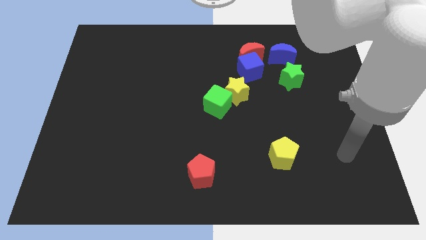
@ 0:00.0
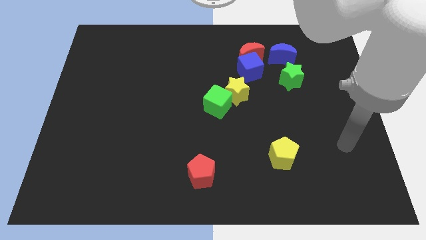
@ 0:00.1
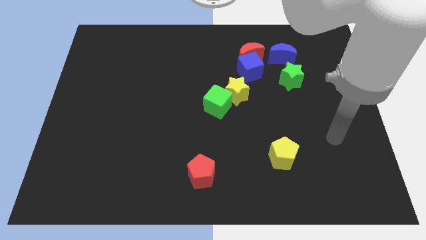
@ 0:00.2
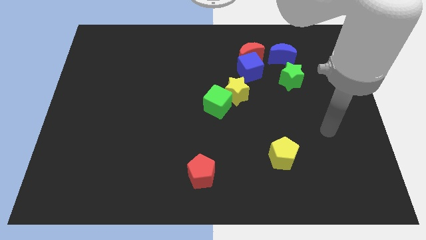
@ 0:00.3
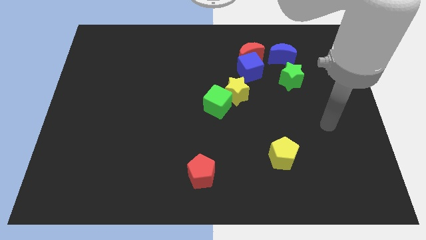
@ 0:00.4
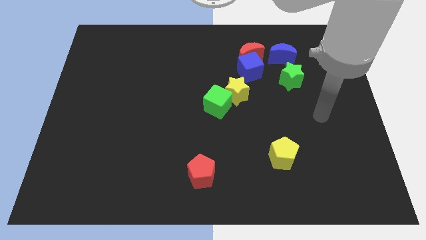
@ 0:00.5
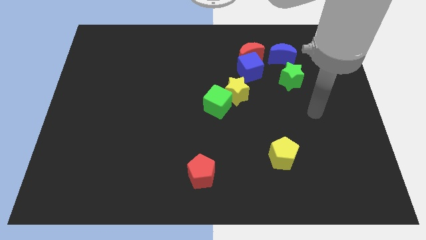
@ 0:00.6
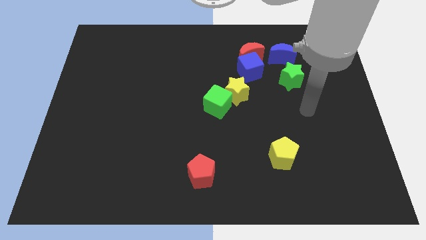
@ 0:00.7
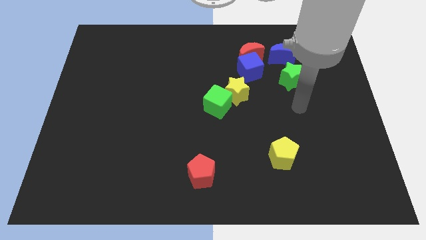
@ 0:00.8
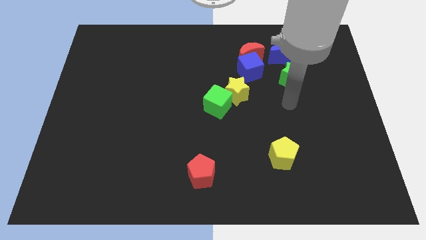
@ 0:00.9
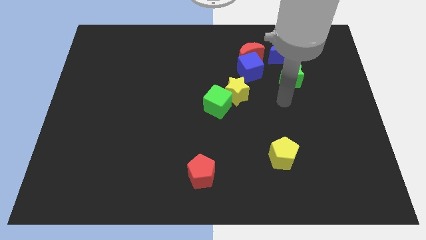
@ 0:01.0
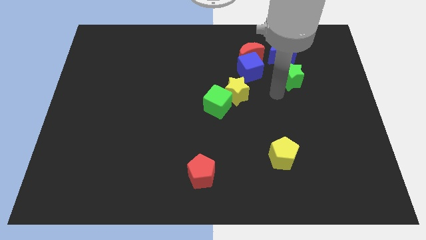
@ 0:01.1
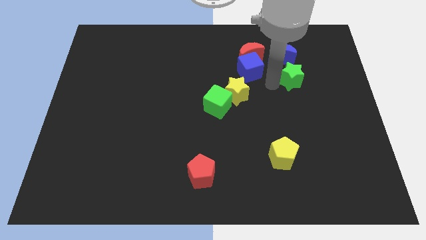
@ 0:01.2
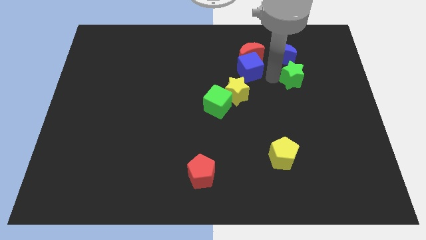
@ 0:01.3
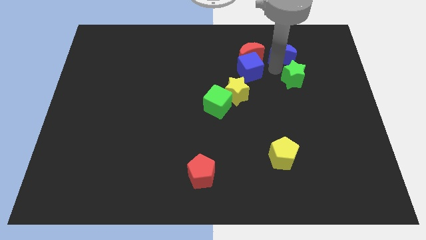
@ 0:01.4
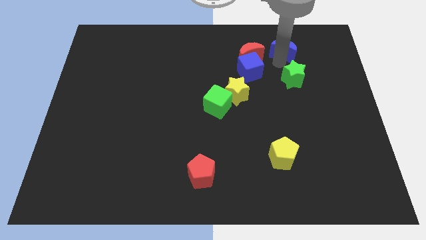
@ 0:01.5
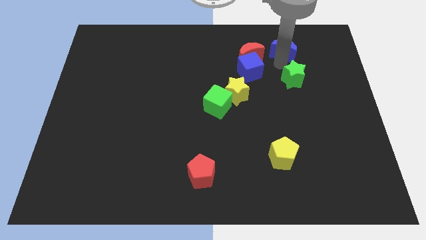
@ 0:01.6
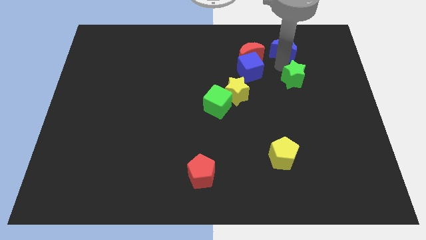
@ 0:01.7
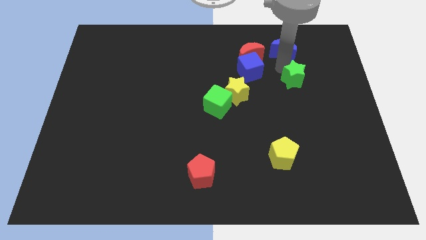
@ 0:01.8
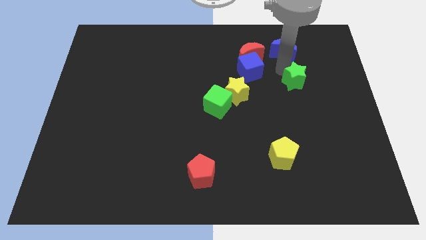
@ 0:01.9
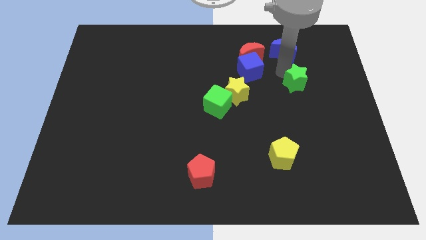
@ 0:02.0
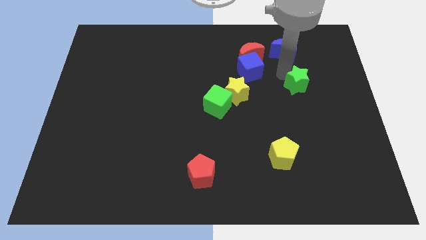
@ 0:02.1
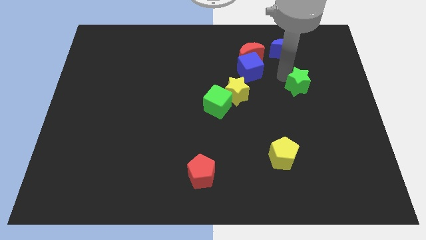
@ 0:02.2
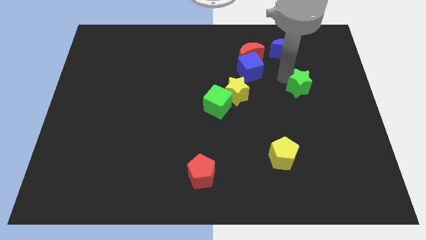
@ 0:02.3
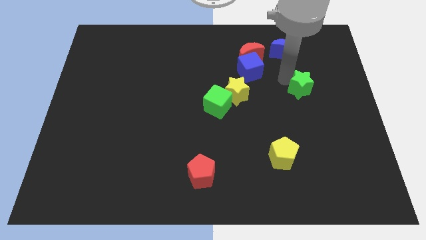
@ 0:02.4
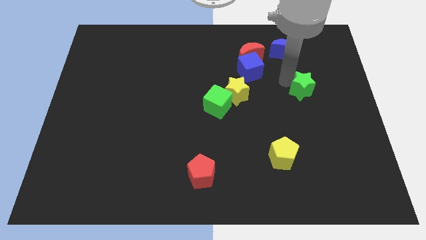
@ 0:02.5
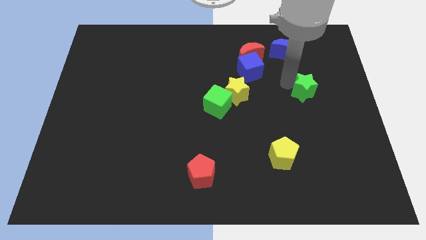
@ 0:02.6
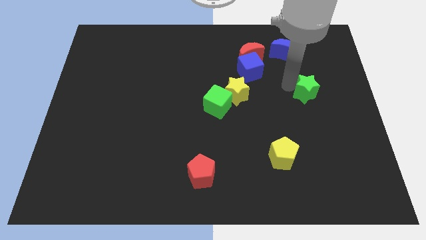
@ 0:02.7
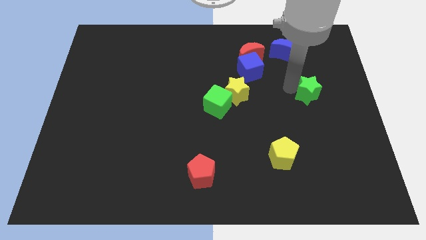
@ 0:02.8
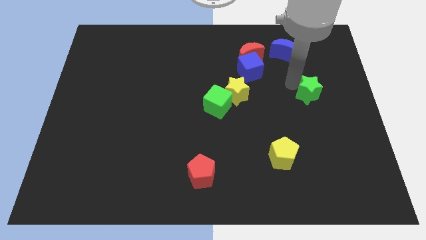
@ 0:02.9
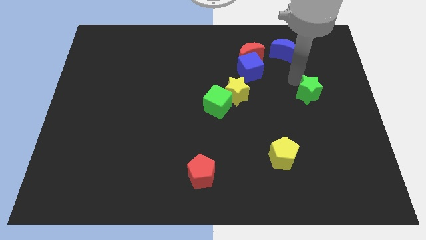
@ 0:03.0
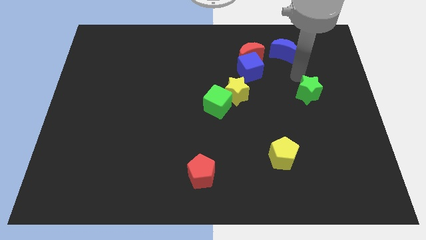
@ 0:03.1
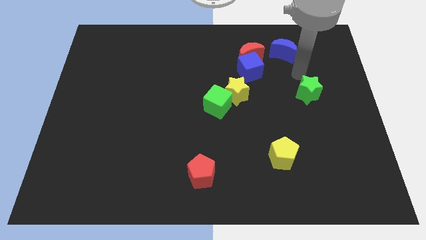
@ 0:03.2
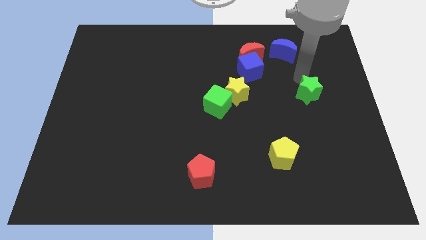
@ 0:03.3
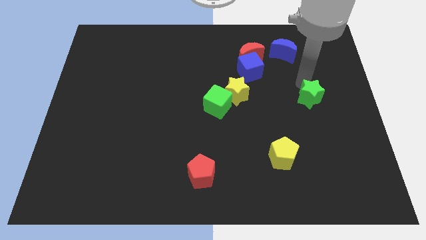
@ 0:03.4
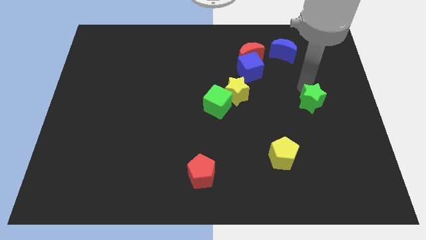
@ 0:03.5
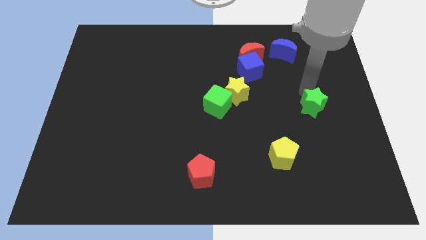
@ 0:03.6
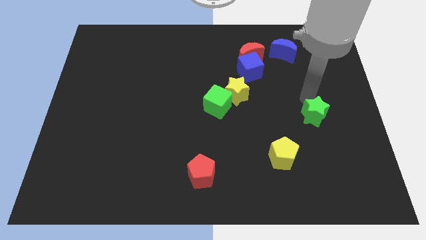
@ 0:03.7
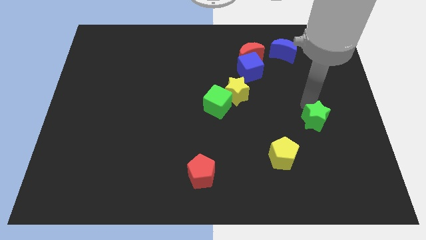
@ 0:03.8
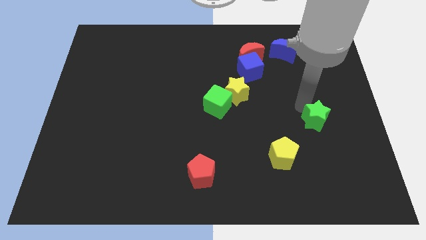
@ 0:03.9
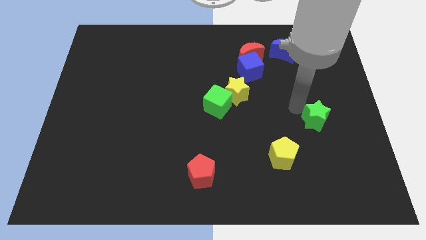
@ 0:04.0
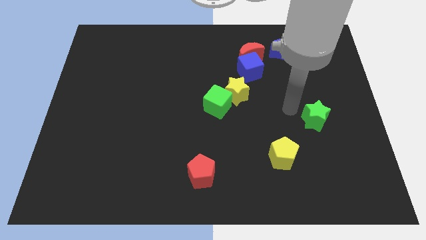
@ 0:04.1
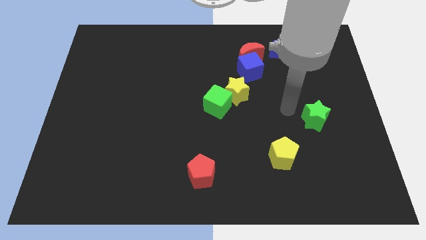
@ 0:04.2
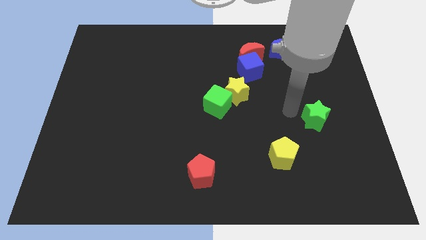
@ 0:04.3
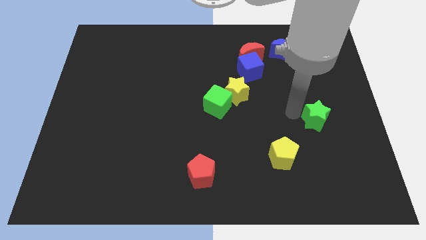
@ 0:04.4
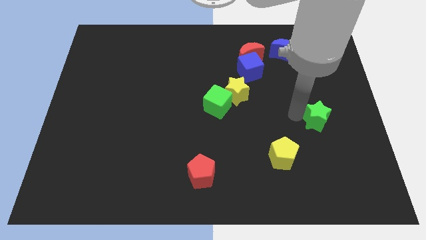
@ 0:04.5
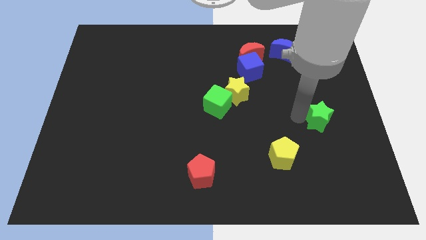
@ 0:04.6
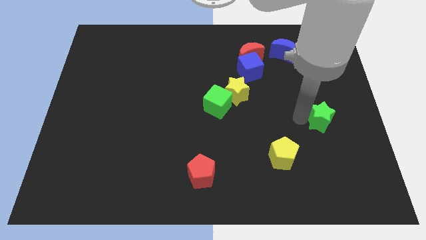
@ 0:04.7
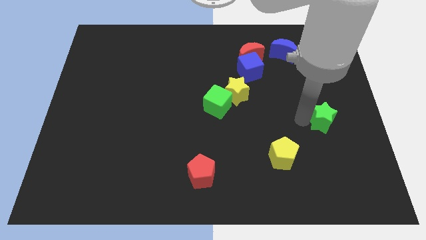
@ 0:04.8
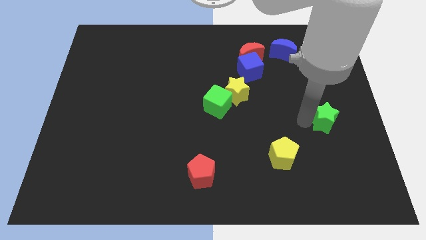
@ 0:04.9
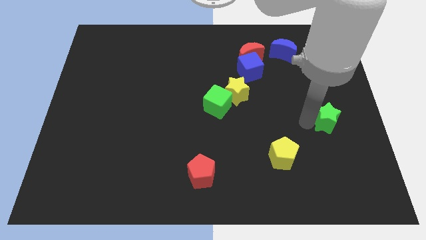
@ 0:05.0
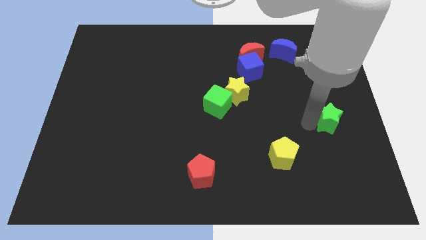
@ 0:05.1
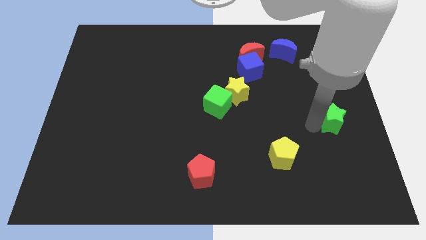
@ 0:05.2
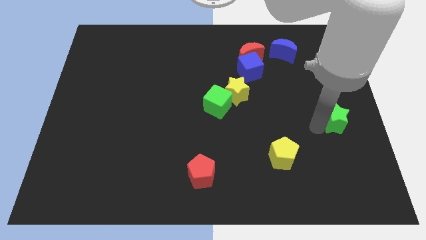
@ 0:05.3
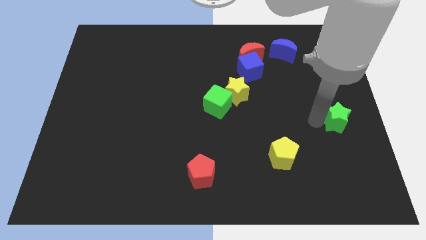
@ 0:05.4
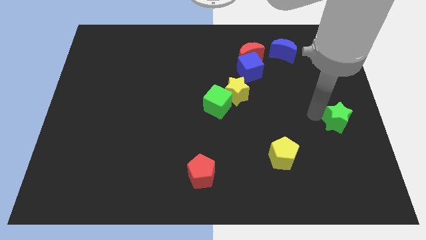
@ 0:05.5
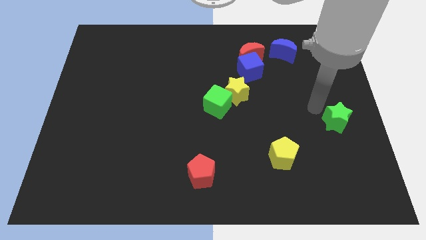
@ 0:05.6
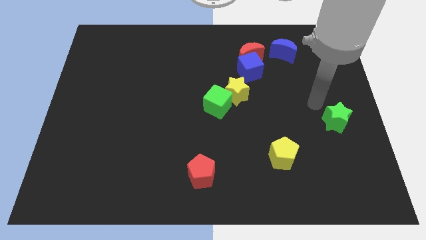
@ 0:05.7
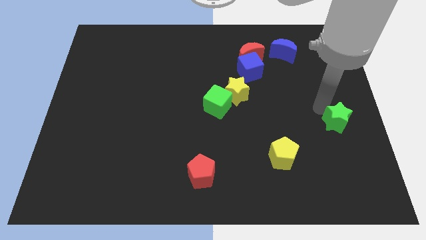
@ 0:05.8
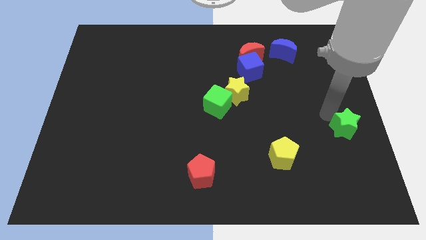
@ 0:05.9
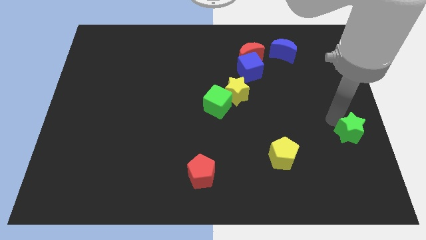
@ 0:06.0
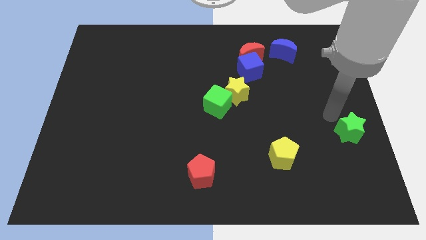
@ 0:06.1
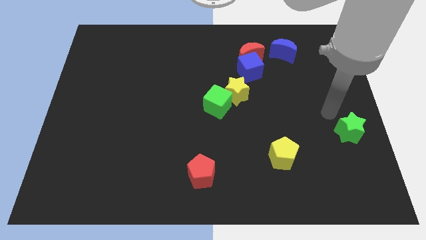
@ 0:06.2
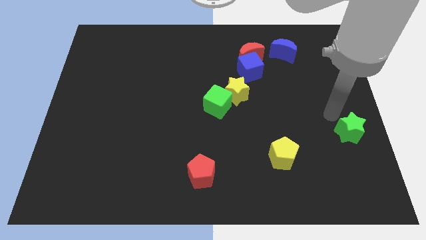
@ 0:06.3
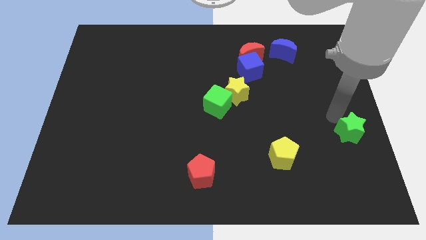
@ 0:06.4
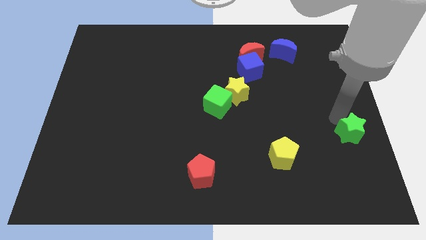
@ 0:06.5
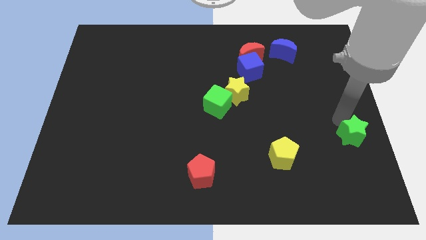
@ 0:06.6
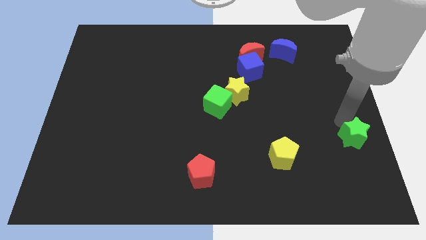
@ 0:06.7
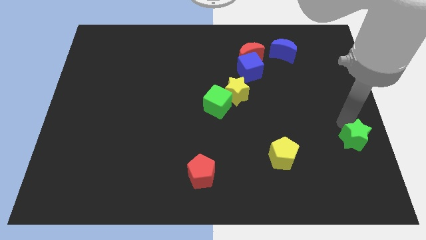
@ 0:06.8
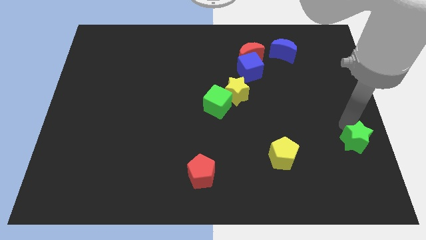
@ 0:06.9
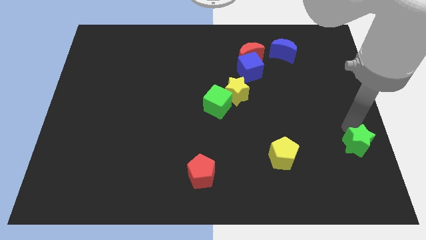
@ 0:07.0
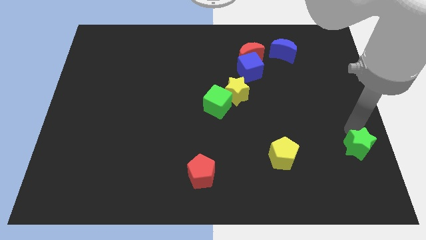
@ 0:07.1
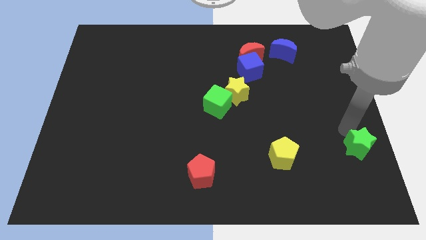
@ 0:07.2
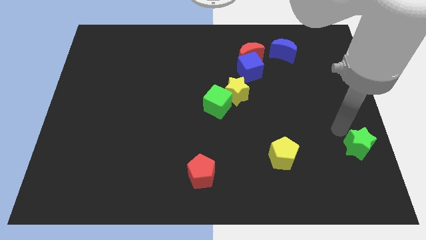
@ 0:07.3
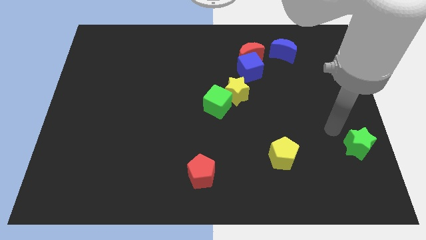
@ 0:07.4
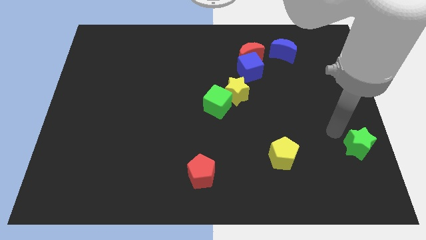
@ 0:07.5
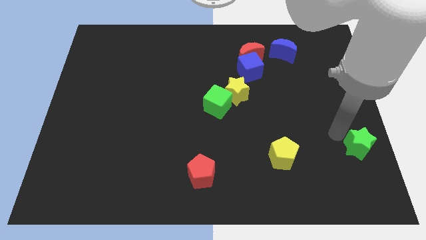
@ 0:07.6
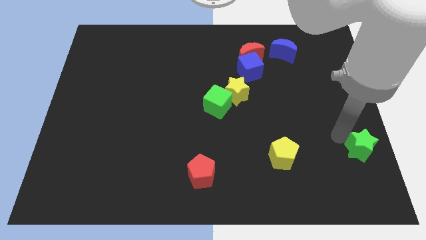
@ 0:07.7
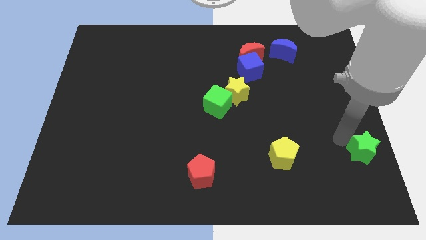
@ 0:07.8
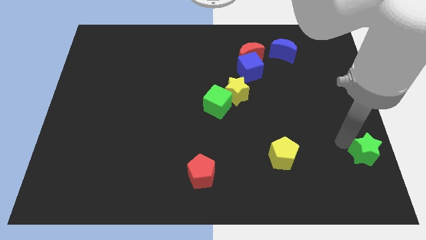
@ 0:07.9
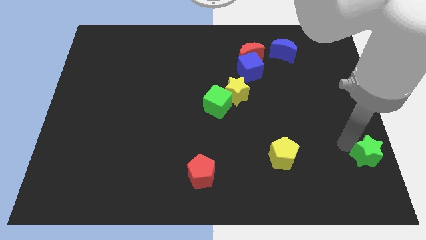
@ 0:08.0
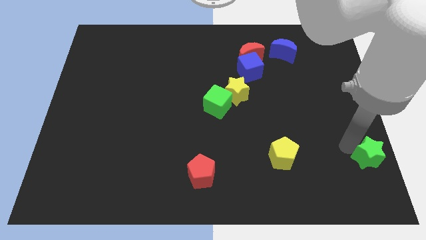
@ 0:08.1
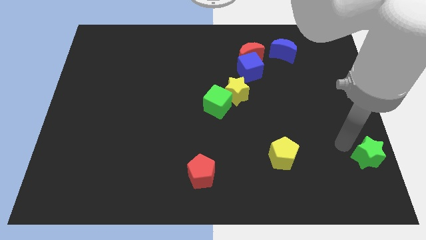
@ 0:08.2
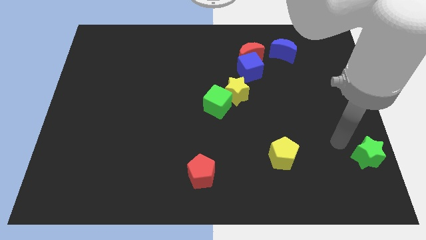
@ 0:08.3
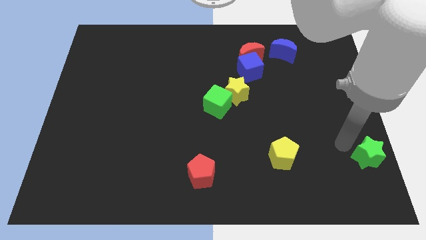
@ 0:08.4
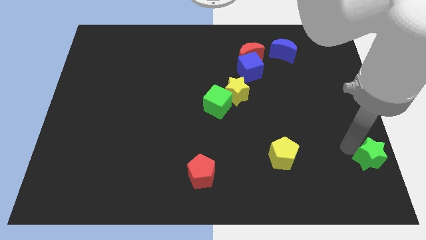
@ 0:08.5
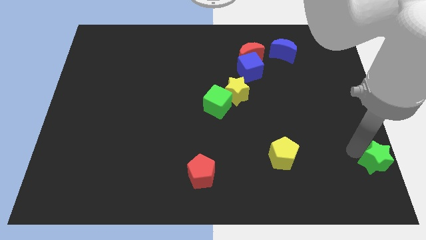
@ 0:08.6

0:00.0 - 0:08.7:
move the green star to the bottom right of the board
